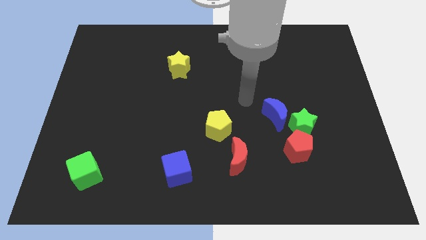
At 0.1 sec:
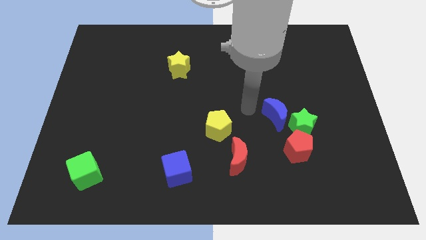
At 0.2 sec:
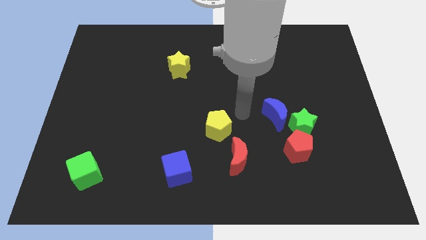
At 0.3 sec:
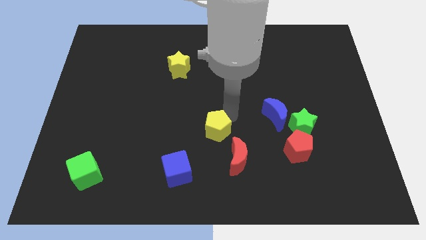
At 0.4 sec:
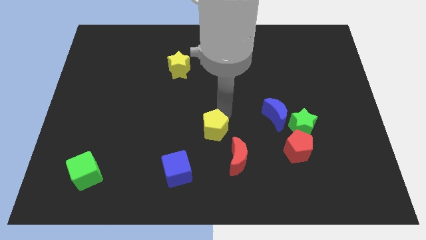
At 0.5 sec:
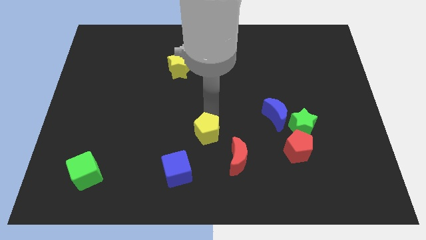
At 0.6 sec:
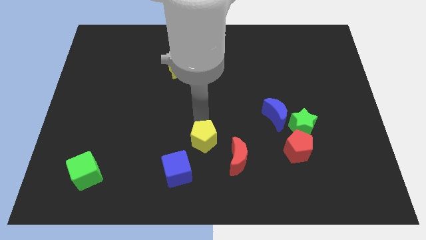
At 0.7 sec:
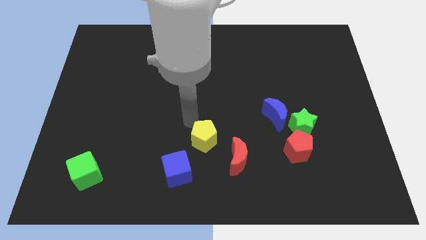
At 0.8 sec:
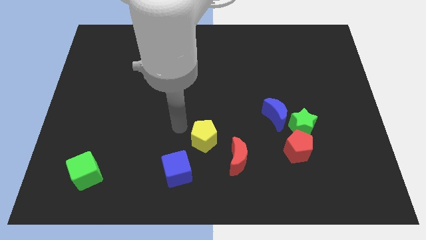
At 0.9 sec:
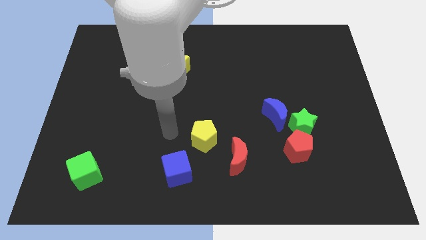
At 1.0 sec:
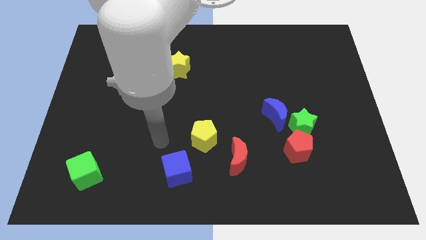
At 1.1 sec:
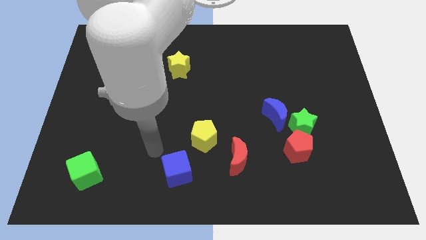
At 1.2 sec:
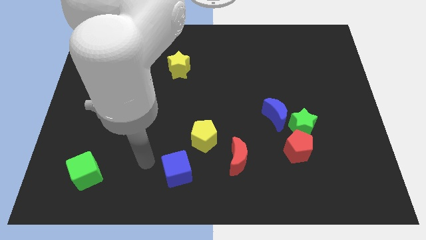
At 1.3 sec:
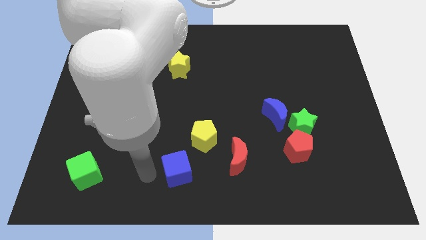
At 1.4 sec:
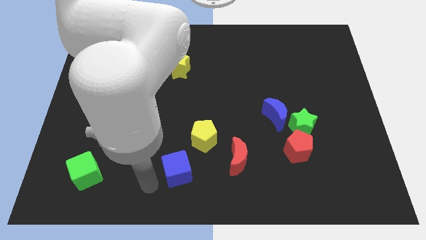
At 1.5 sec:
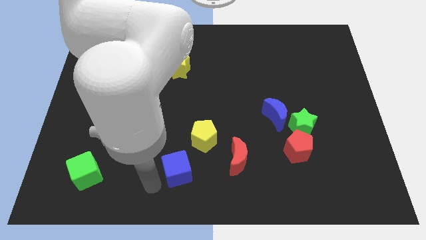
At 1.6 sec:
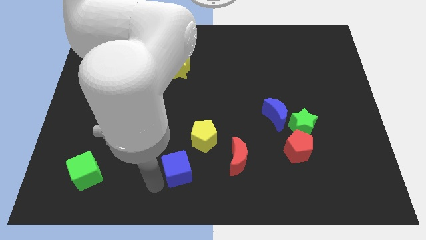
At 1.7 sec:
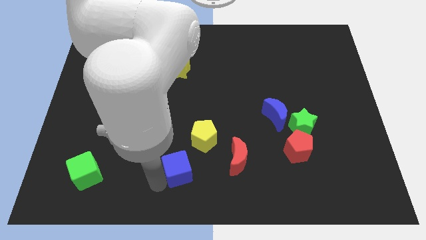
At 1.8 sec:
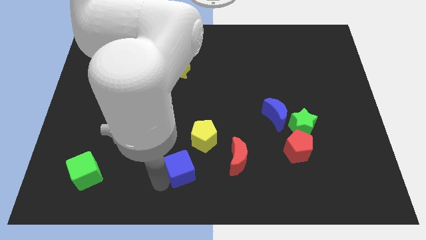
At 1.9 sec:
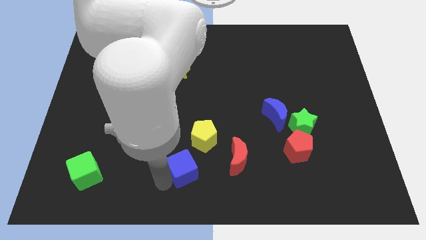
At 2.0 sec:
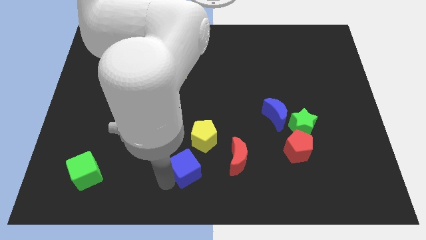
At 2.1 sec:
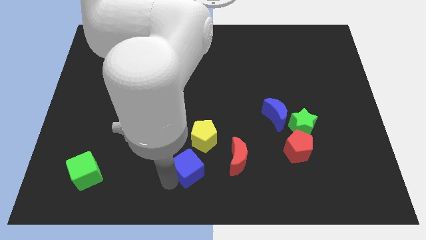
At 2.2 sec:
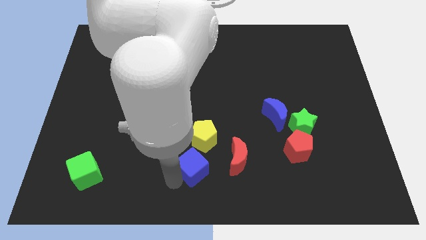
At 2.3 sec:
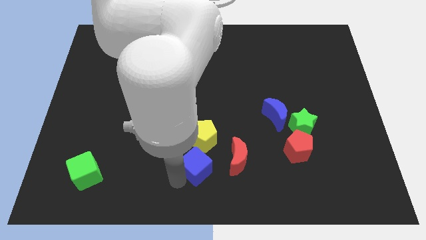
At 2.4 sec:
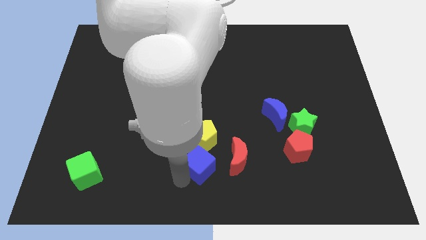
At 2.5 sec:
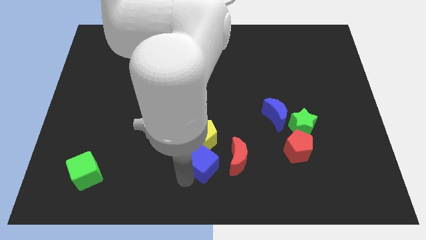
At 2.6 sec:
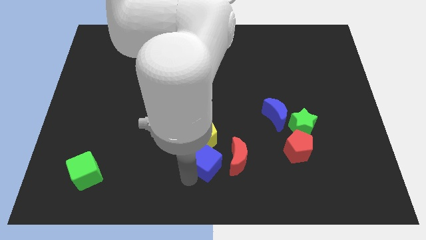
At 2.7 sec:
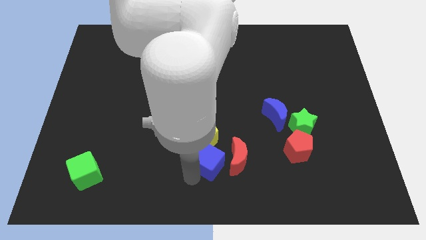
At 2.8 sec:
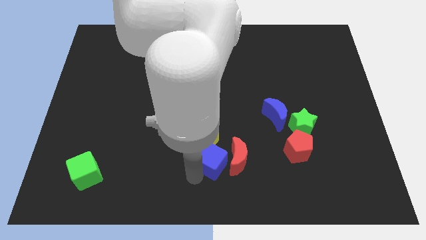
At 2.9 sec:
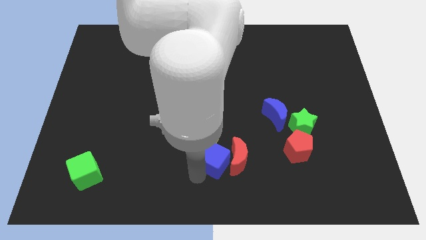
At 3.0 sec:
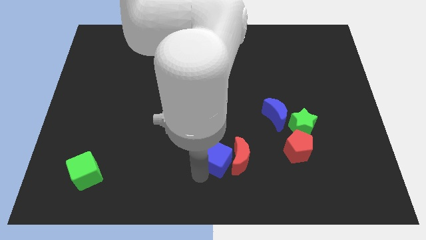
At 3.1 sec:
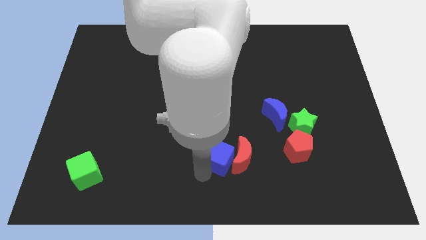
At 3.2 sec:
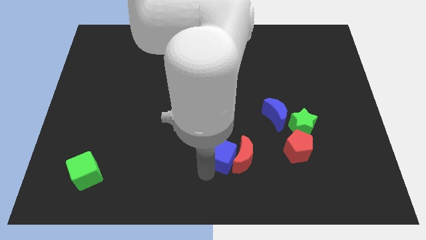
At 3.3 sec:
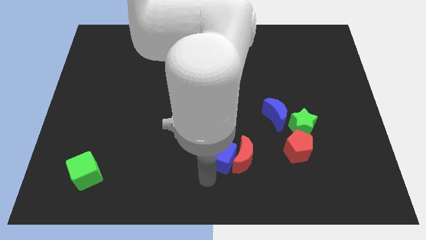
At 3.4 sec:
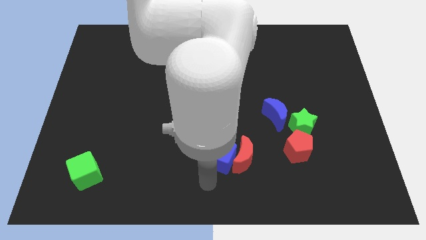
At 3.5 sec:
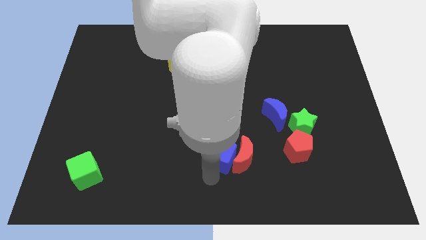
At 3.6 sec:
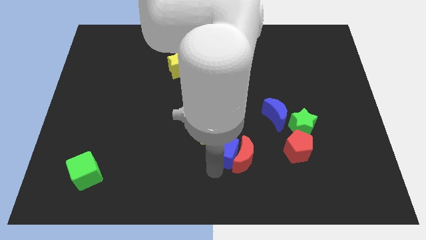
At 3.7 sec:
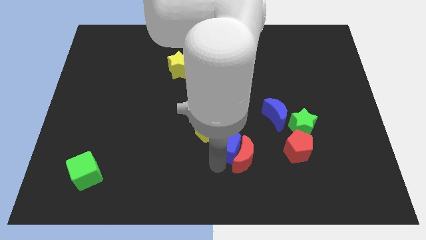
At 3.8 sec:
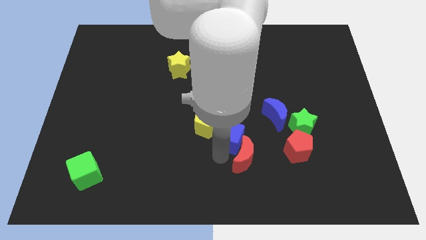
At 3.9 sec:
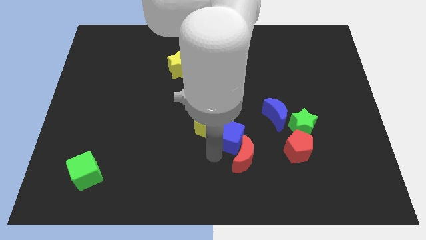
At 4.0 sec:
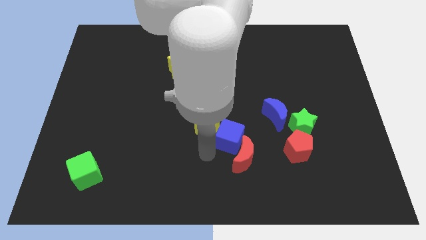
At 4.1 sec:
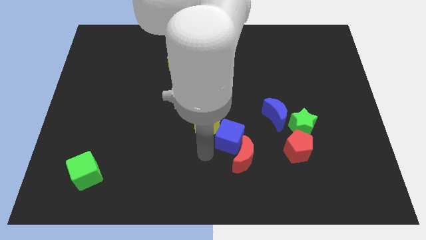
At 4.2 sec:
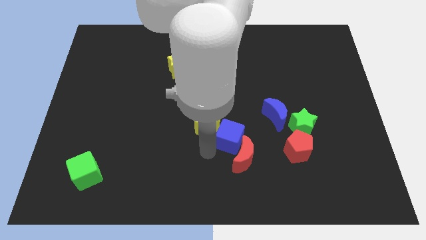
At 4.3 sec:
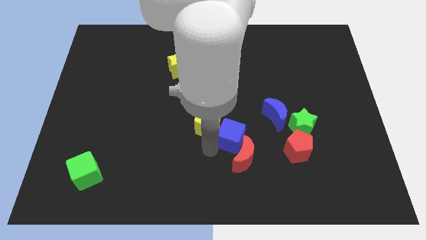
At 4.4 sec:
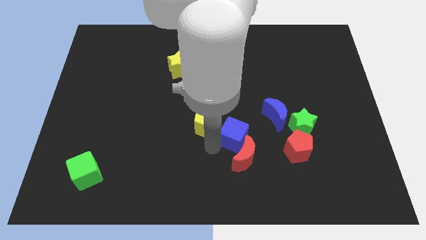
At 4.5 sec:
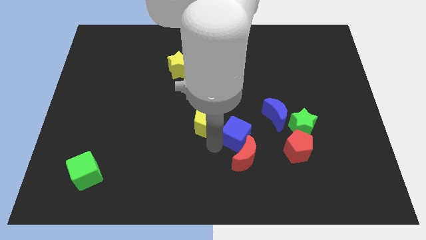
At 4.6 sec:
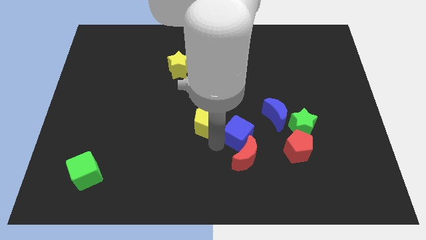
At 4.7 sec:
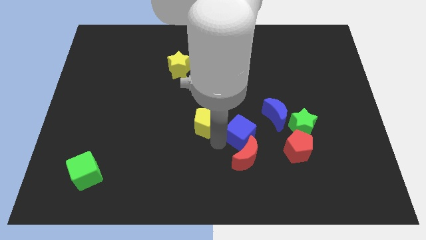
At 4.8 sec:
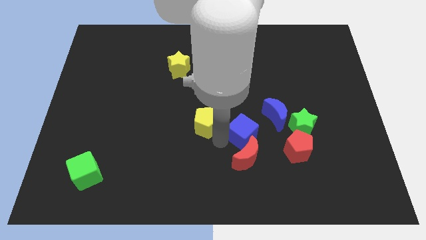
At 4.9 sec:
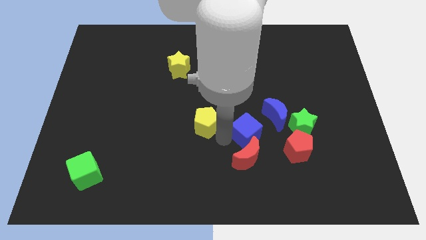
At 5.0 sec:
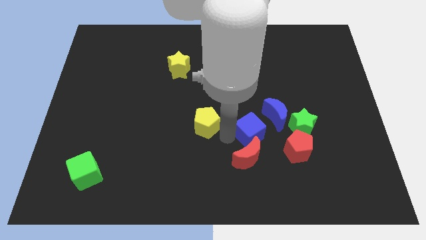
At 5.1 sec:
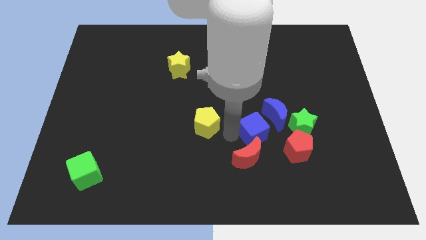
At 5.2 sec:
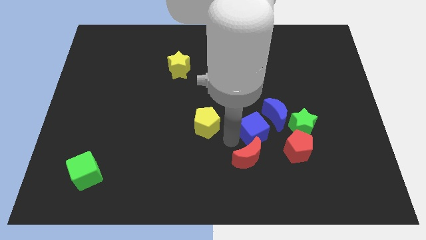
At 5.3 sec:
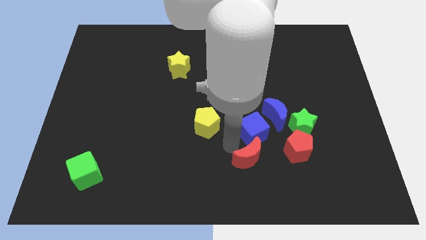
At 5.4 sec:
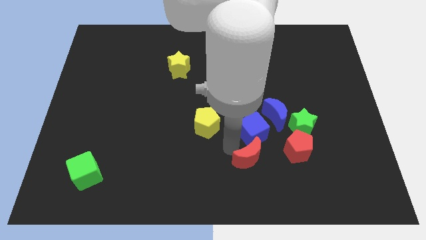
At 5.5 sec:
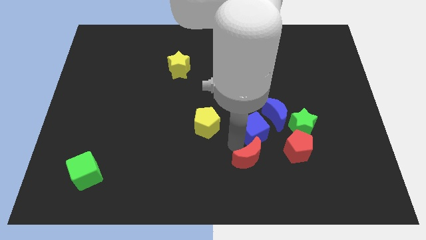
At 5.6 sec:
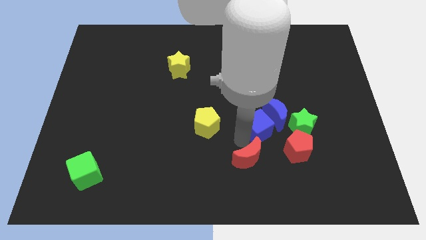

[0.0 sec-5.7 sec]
move the blue cube to the blue moon

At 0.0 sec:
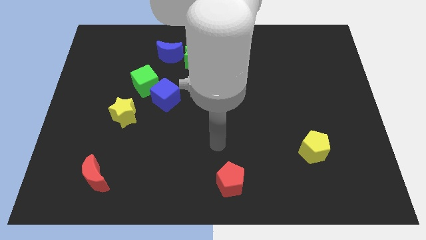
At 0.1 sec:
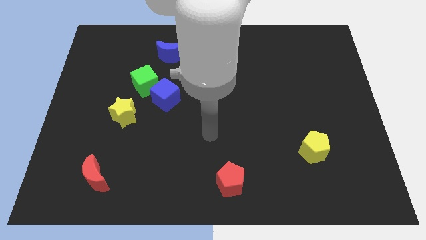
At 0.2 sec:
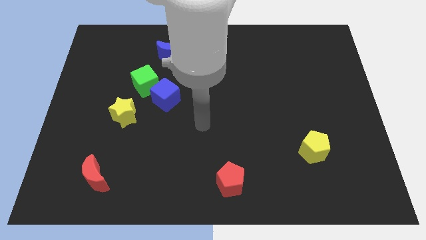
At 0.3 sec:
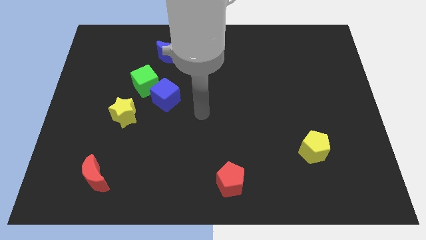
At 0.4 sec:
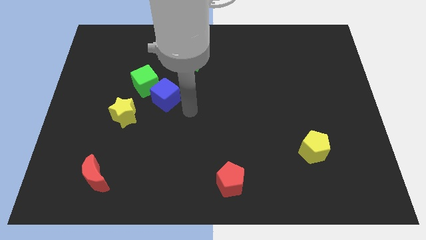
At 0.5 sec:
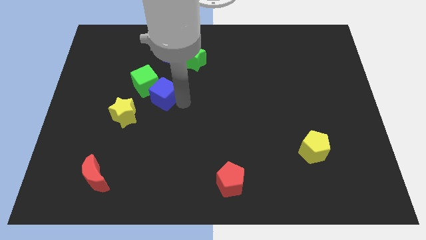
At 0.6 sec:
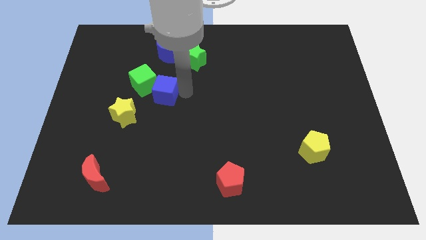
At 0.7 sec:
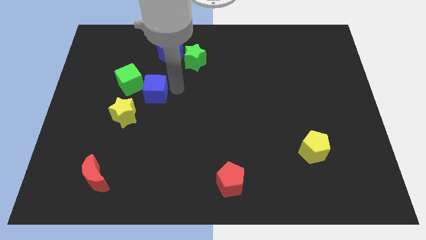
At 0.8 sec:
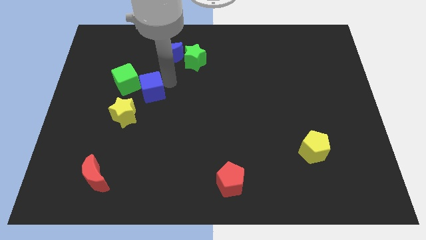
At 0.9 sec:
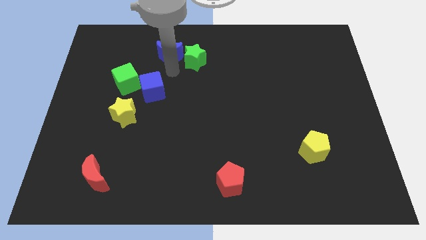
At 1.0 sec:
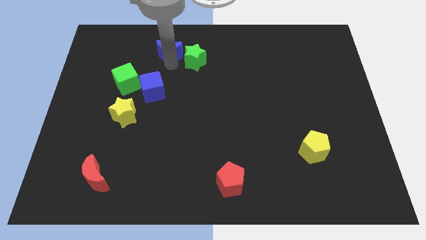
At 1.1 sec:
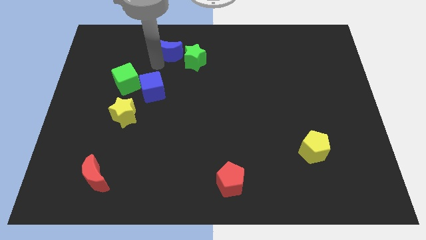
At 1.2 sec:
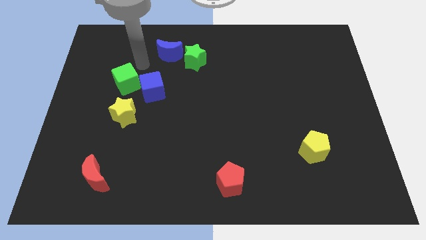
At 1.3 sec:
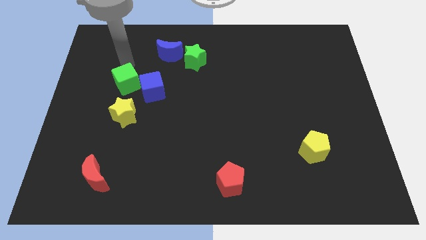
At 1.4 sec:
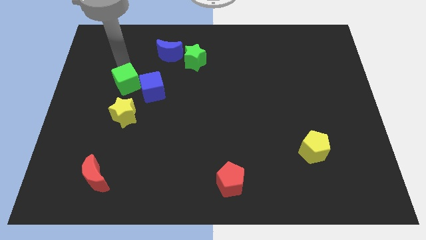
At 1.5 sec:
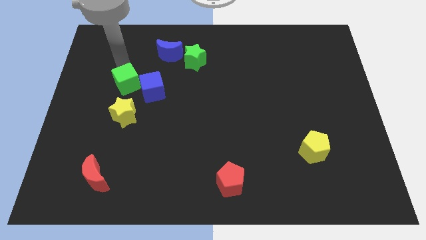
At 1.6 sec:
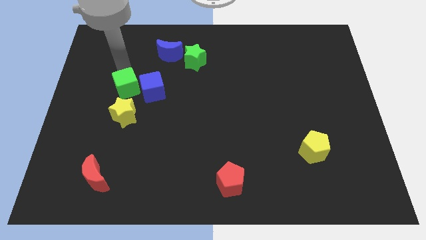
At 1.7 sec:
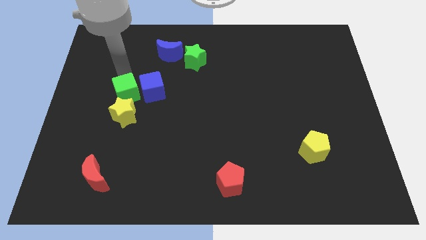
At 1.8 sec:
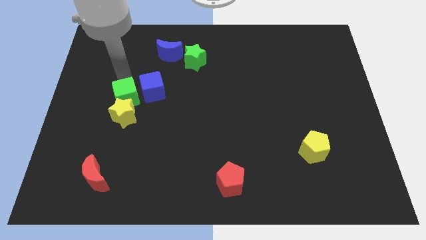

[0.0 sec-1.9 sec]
move the green cube to the yellow star

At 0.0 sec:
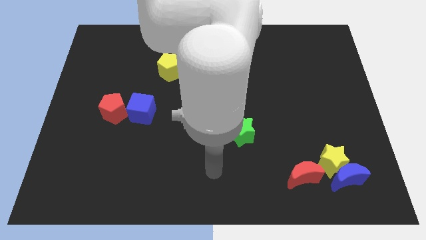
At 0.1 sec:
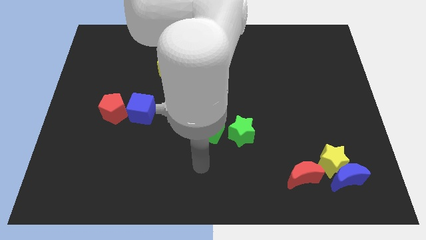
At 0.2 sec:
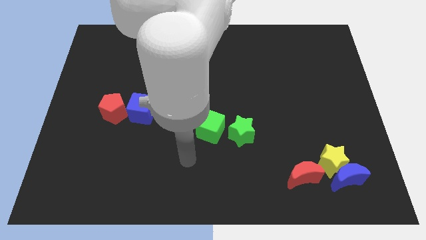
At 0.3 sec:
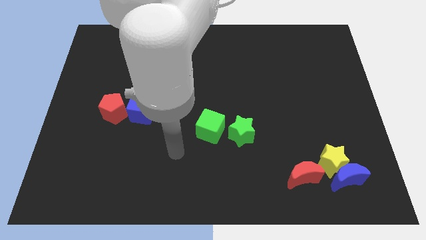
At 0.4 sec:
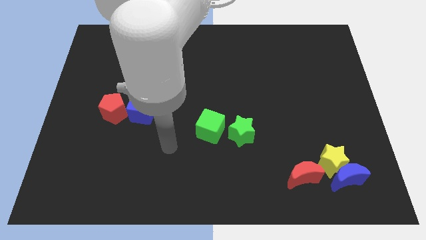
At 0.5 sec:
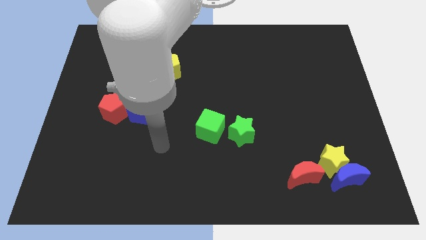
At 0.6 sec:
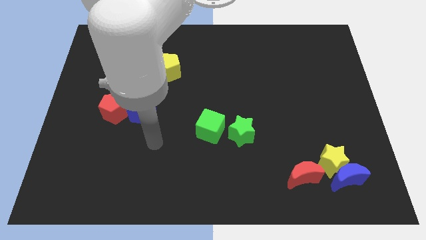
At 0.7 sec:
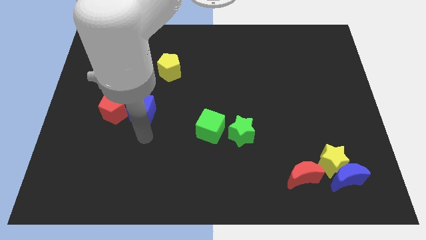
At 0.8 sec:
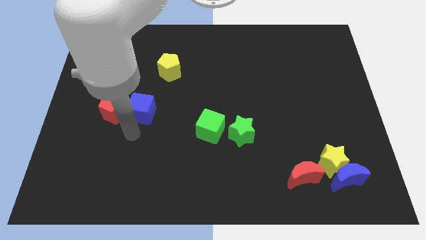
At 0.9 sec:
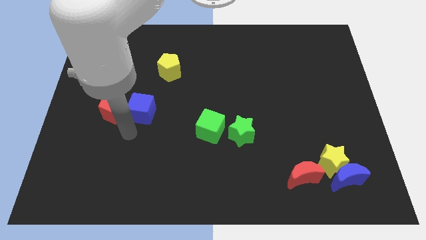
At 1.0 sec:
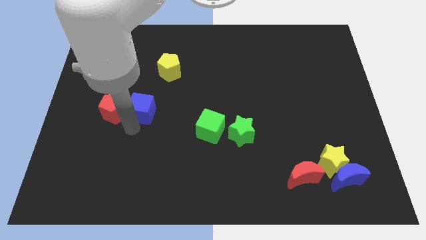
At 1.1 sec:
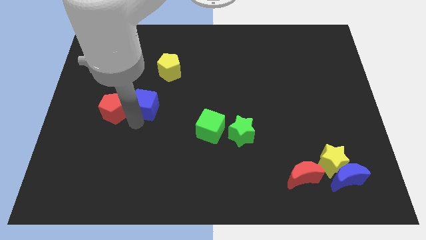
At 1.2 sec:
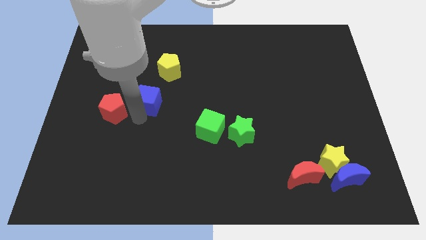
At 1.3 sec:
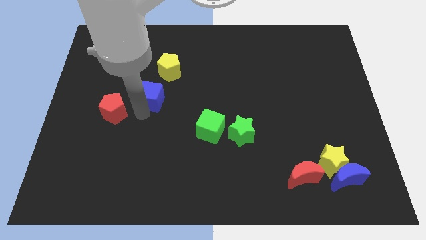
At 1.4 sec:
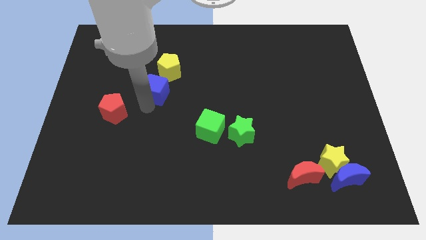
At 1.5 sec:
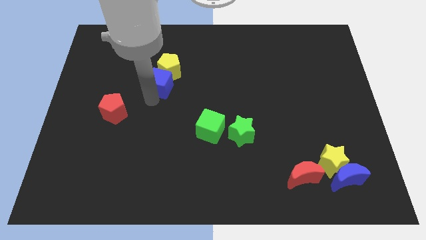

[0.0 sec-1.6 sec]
slide the blue cube close to the yellow pentagon
